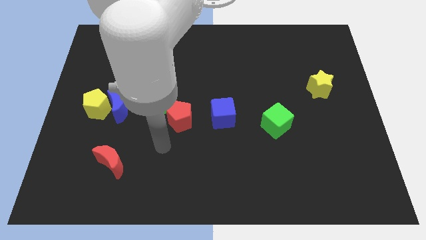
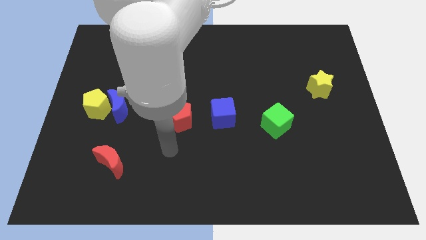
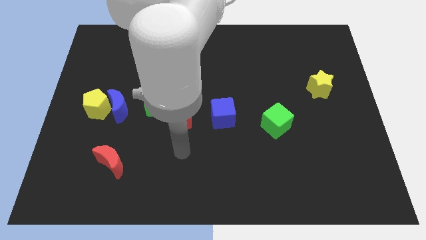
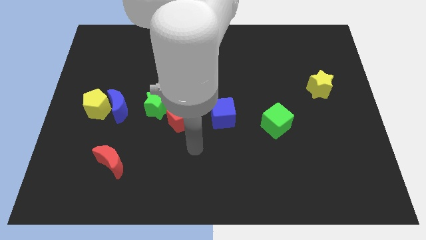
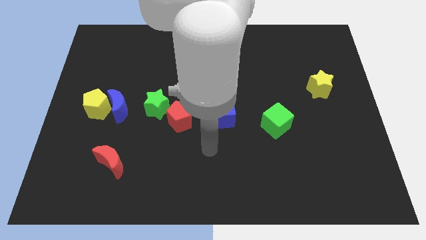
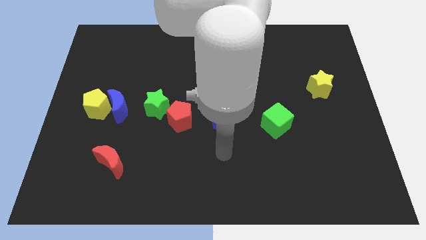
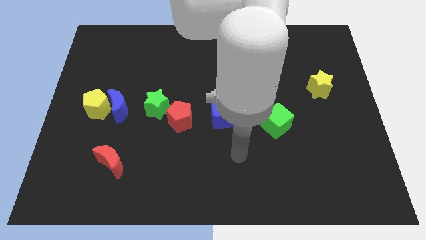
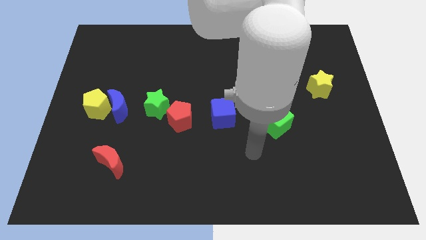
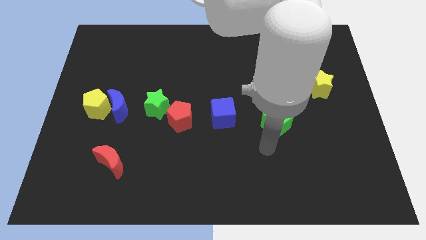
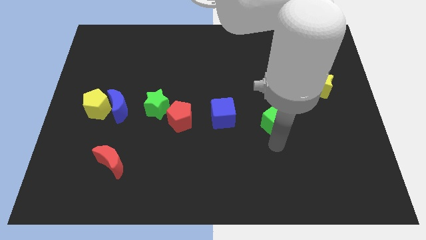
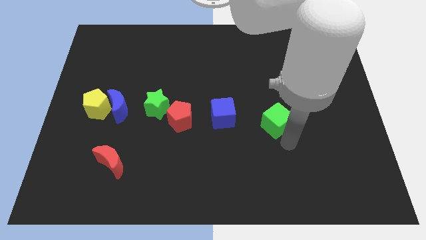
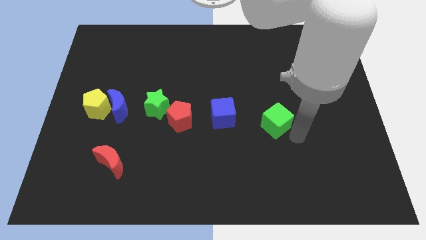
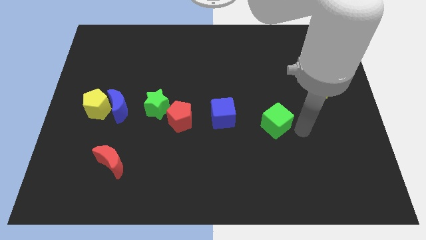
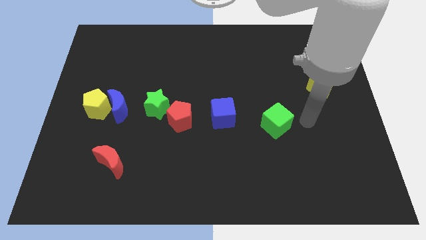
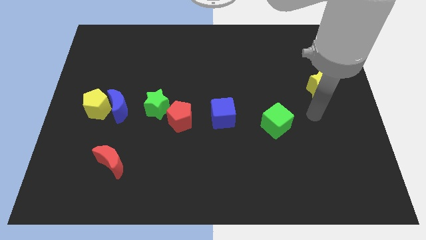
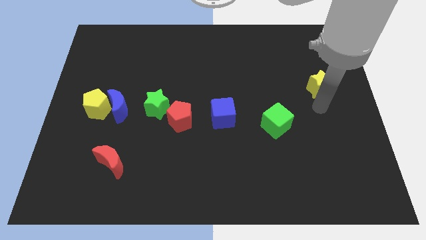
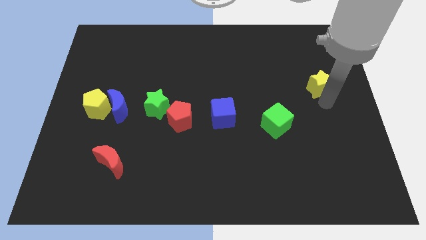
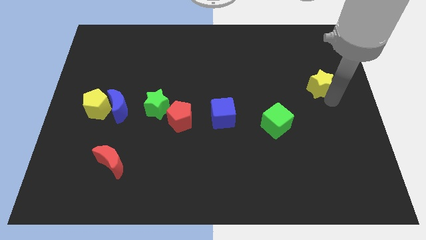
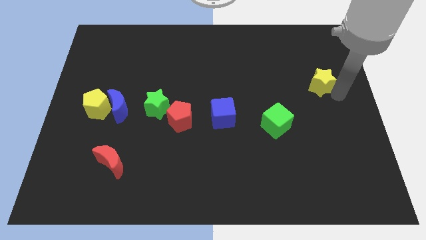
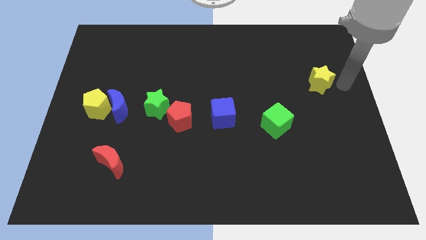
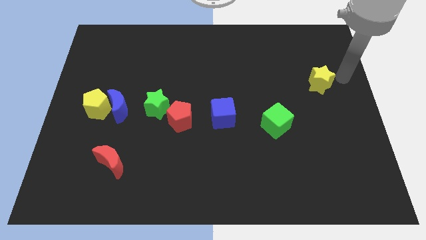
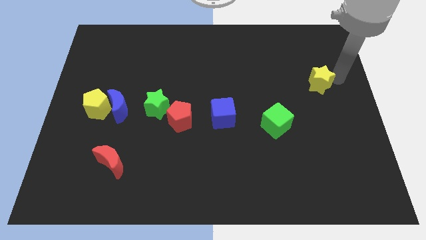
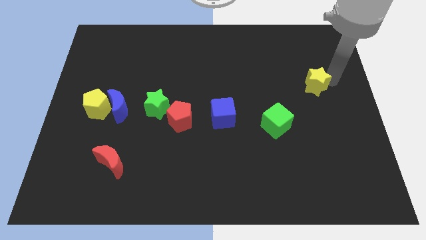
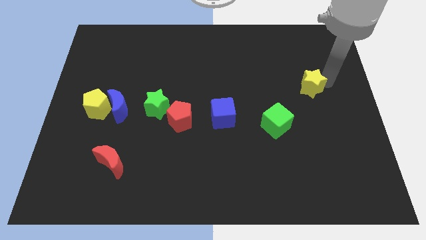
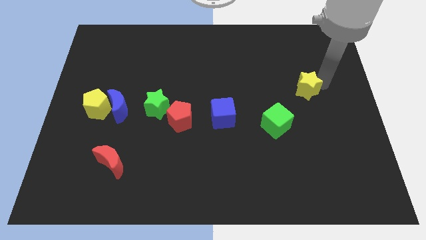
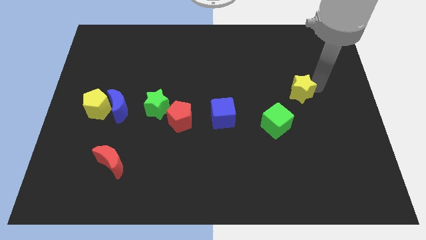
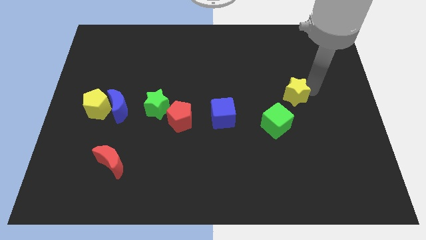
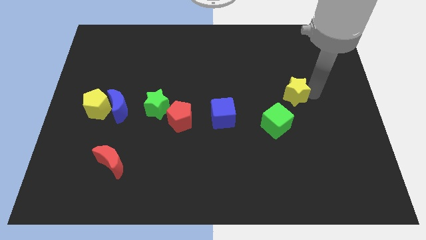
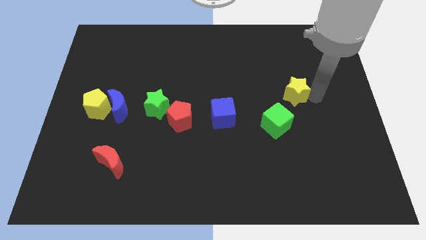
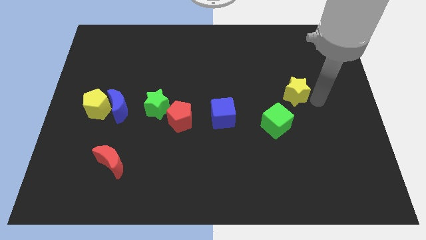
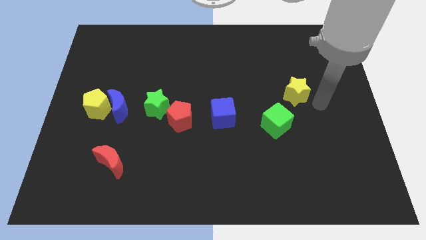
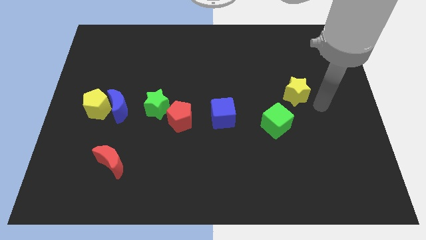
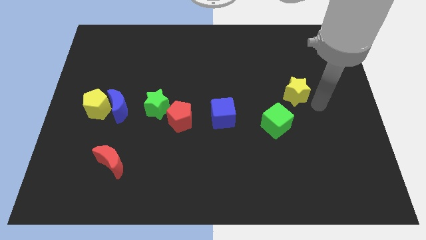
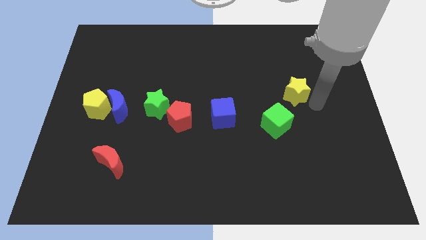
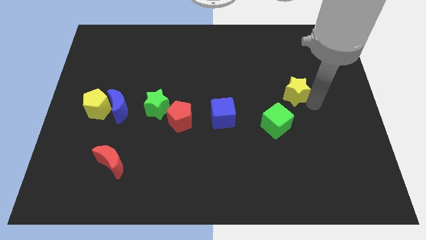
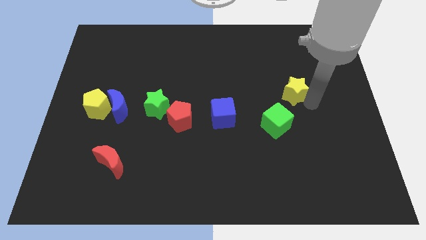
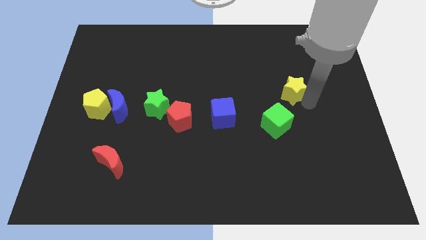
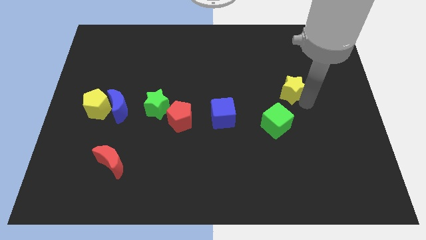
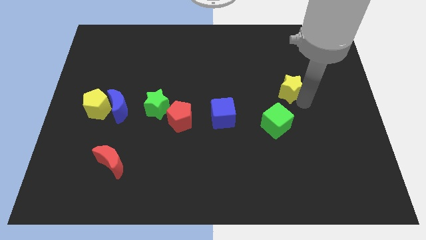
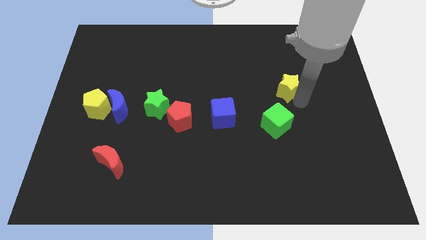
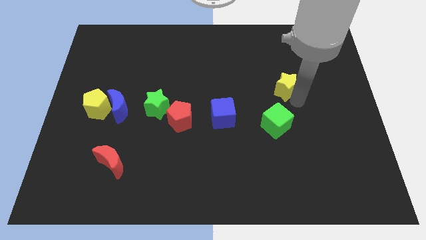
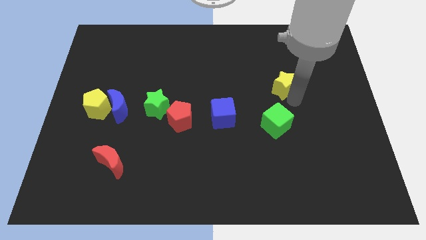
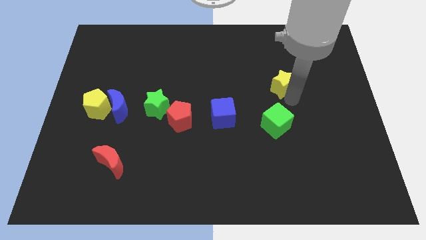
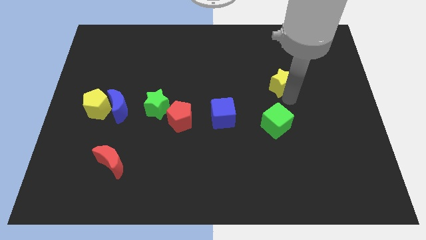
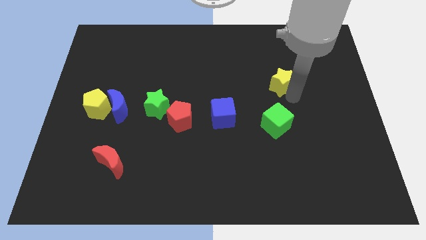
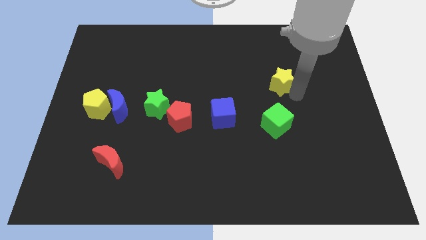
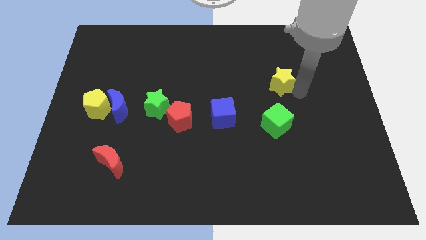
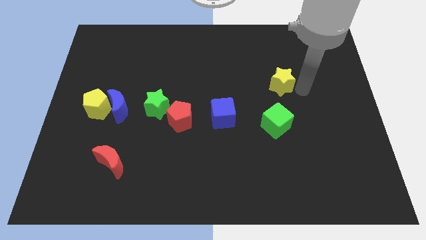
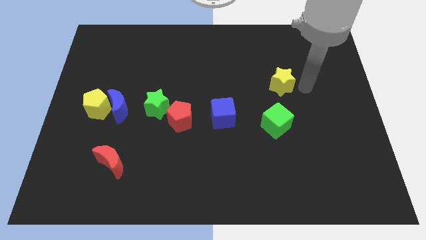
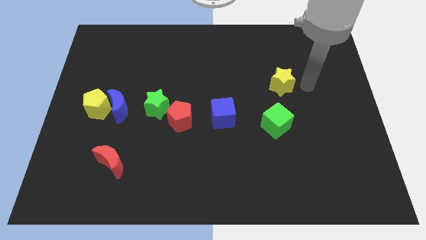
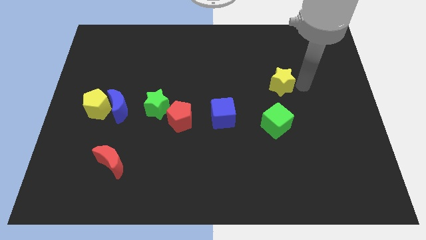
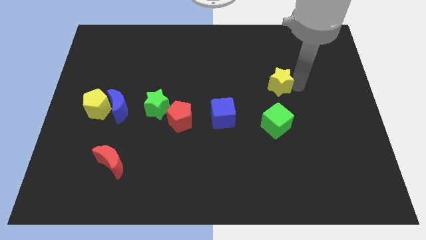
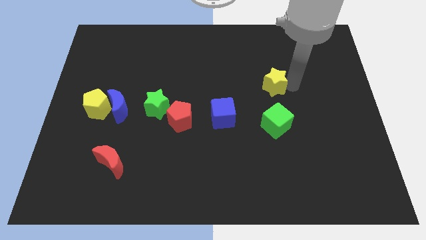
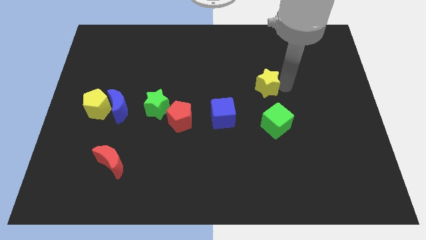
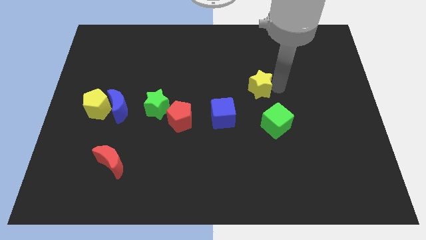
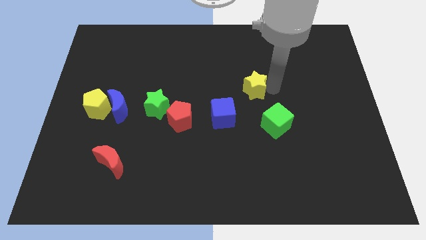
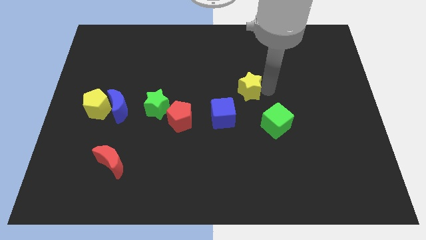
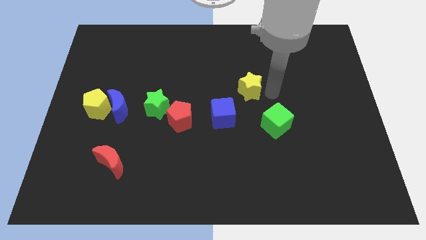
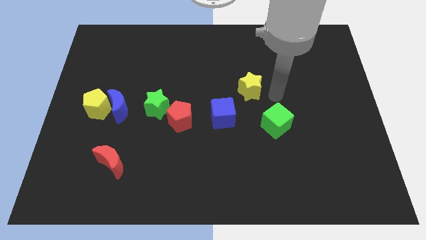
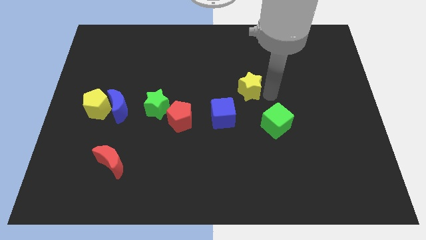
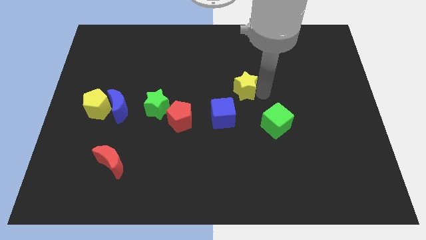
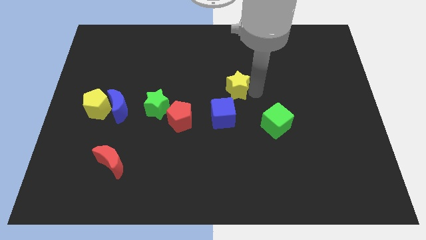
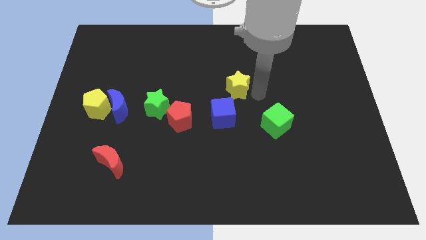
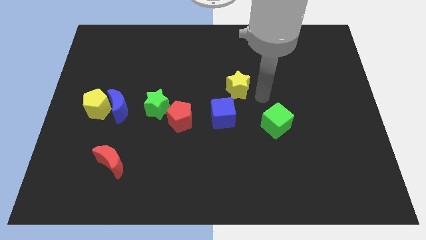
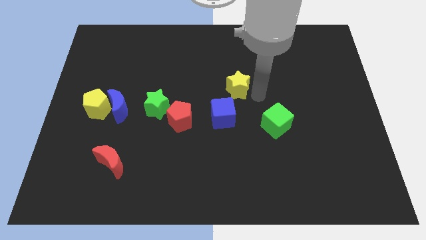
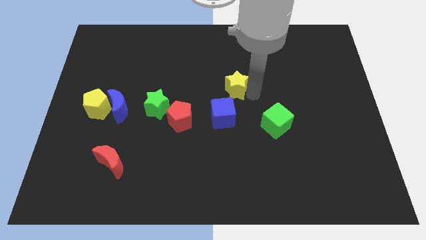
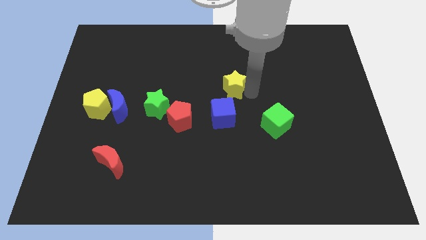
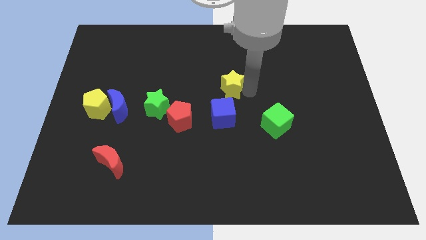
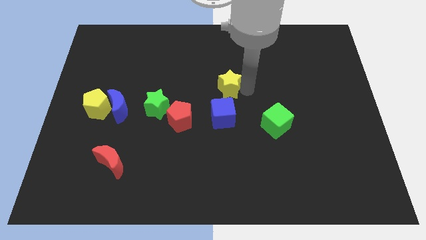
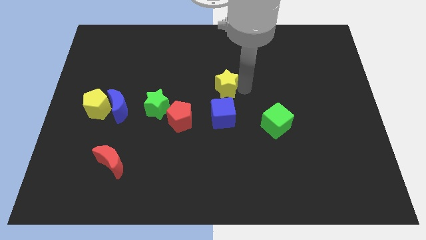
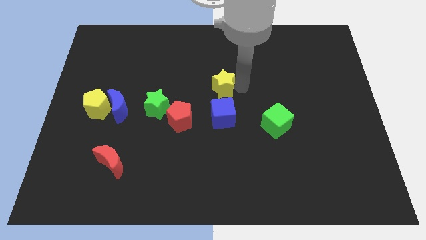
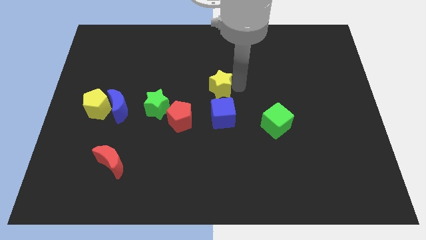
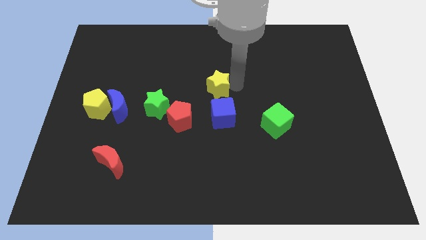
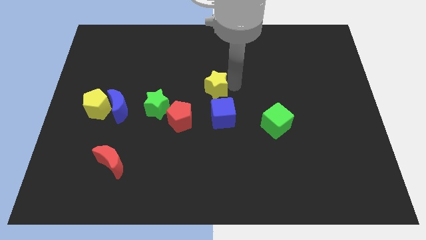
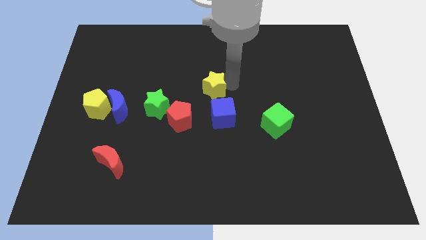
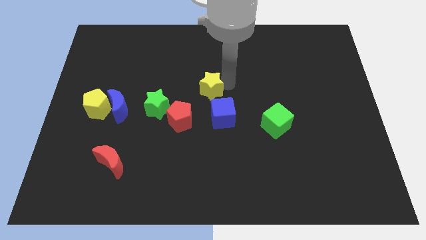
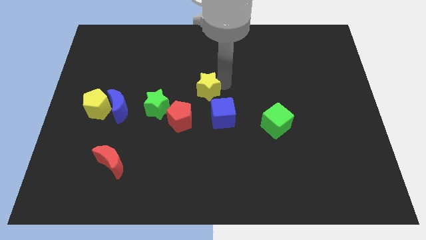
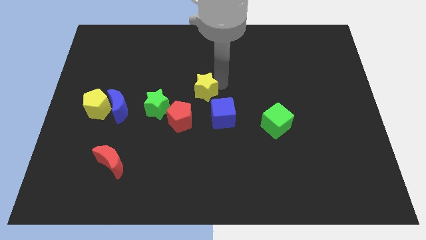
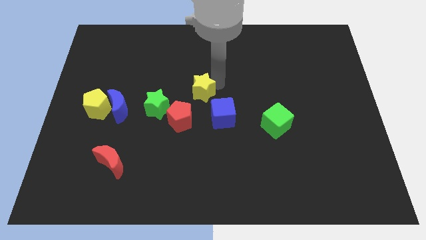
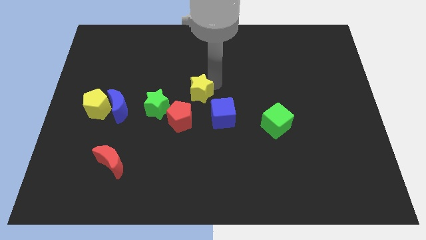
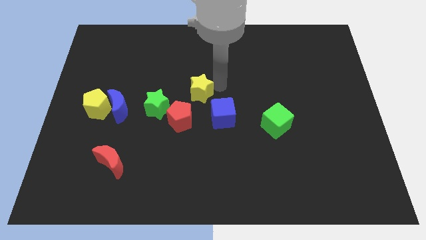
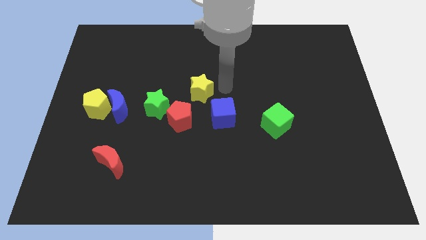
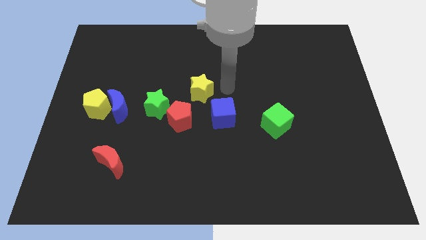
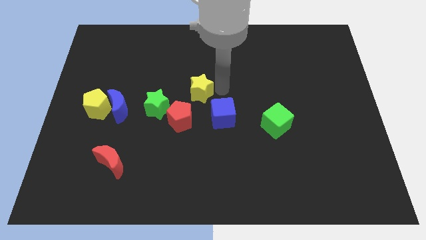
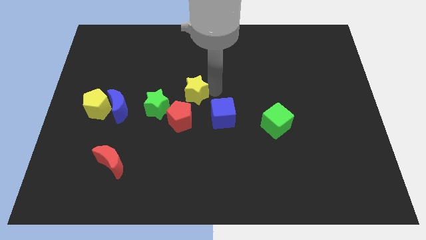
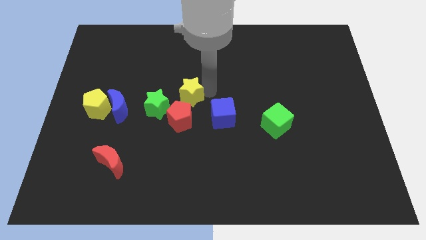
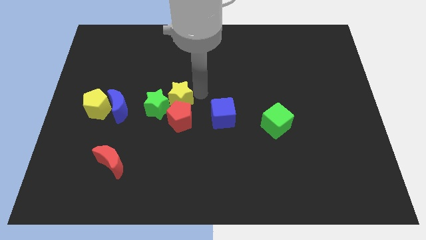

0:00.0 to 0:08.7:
move the yellow star next to the green star
